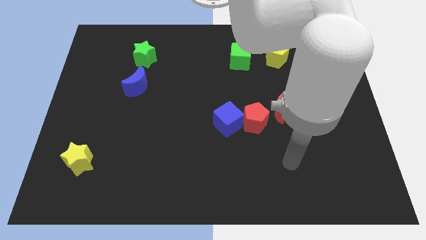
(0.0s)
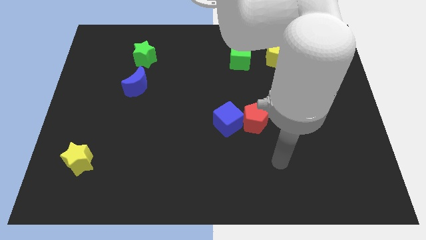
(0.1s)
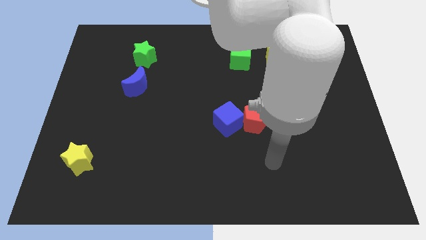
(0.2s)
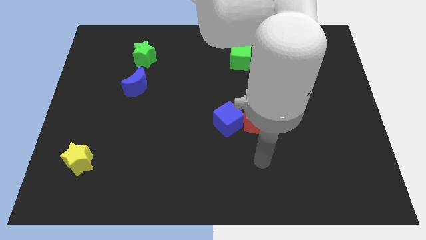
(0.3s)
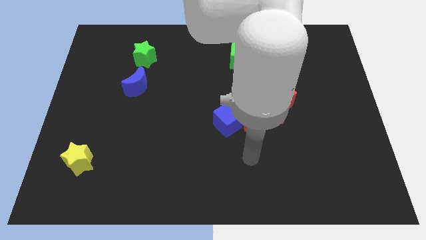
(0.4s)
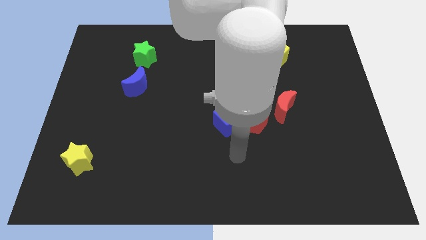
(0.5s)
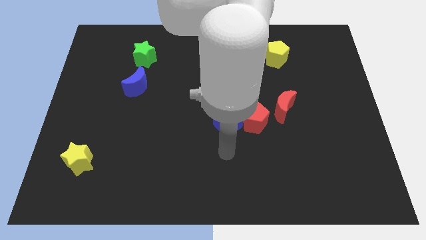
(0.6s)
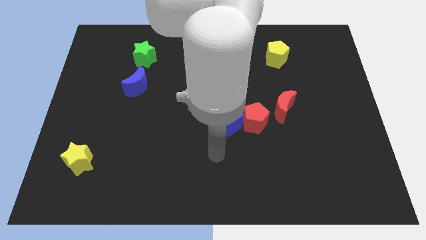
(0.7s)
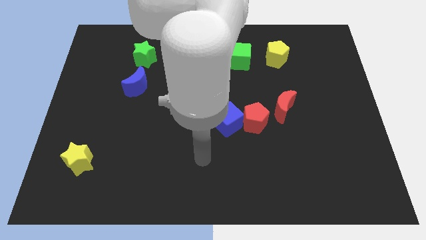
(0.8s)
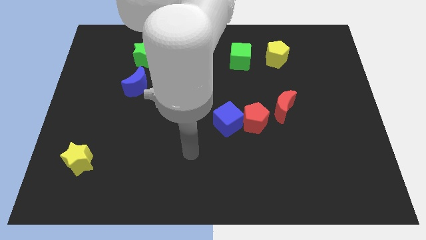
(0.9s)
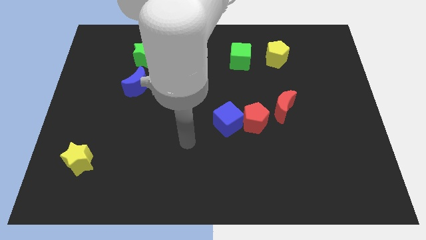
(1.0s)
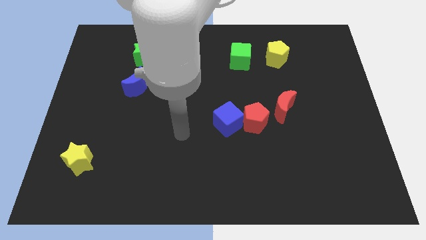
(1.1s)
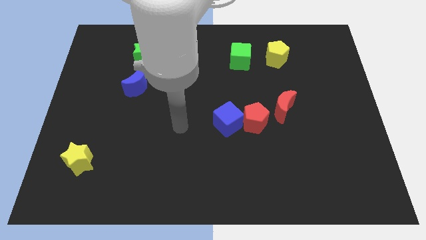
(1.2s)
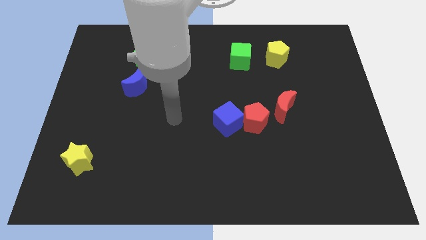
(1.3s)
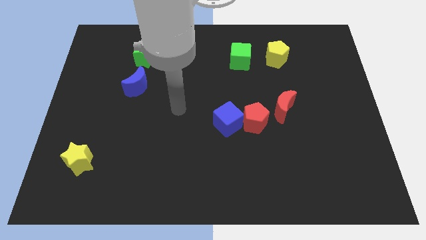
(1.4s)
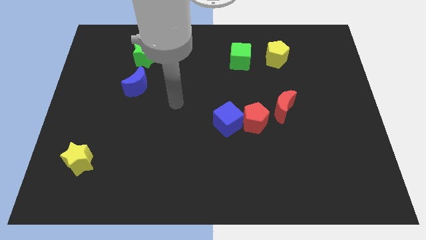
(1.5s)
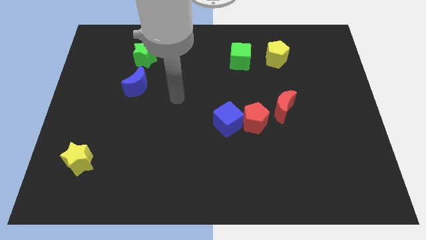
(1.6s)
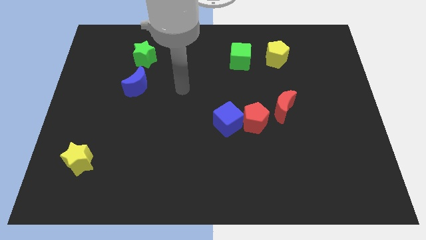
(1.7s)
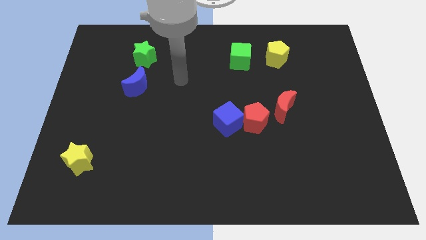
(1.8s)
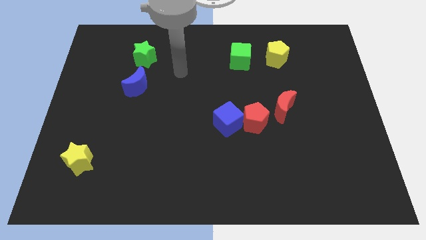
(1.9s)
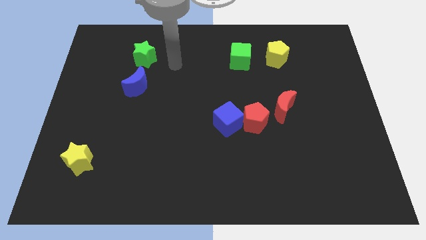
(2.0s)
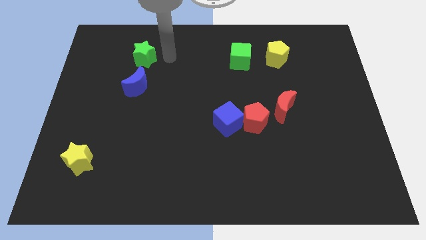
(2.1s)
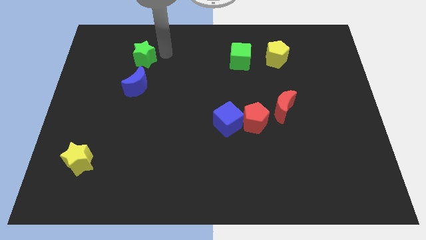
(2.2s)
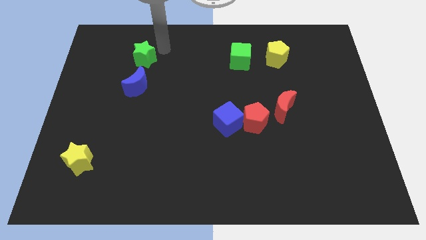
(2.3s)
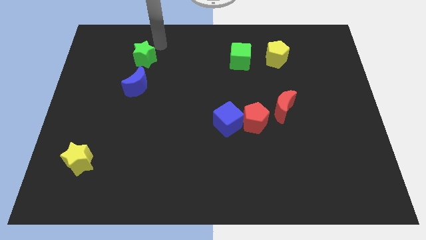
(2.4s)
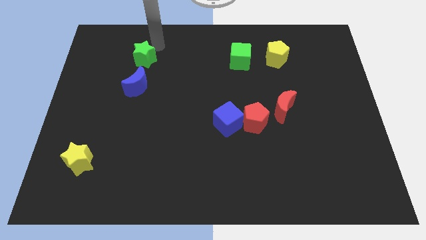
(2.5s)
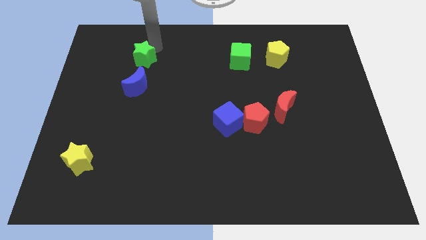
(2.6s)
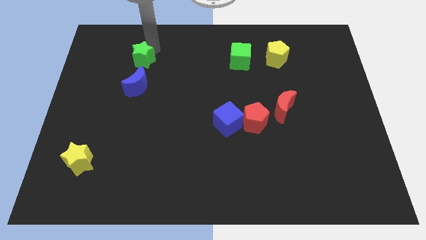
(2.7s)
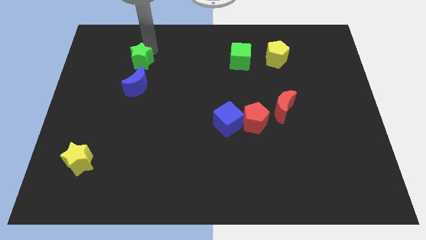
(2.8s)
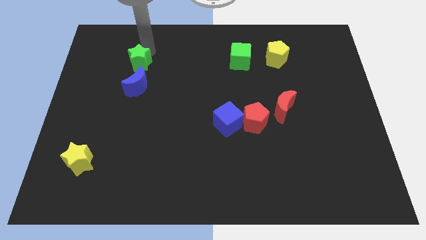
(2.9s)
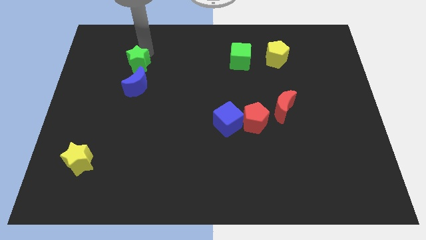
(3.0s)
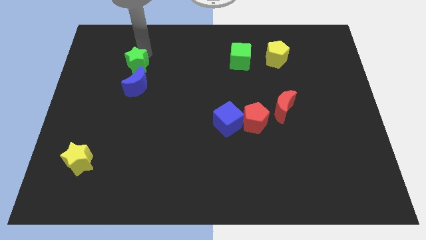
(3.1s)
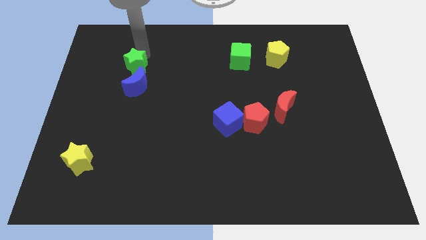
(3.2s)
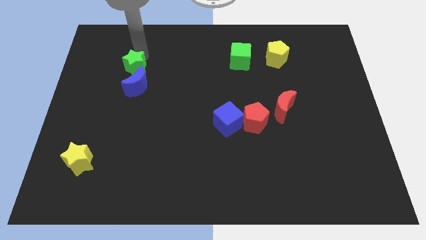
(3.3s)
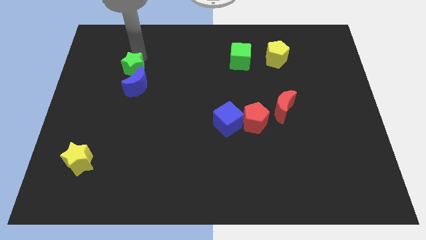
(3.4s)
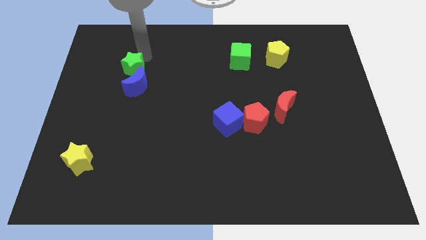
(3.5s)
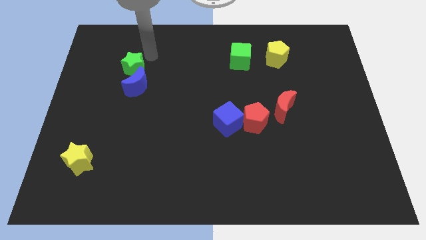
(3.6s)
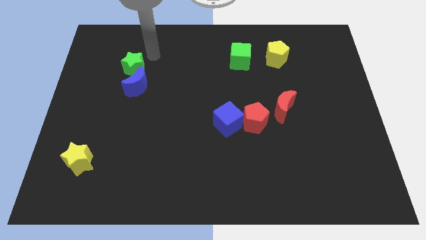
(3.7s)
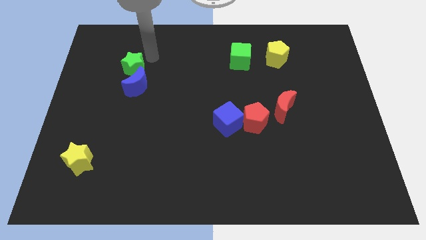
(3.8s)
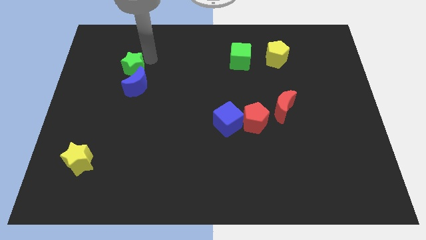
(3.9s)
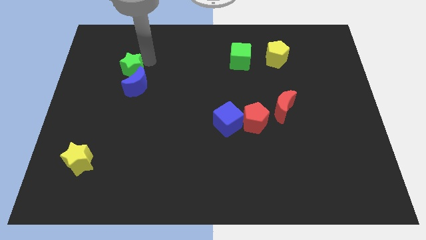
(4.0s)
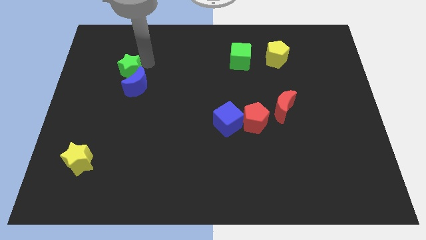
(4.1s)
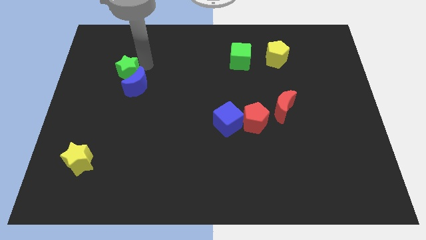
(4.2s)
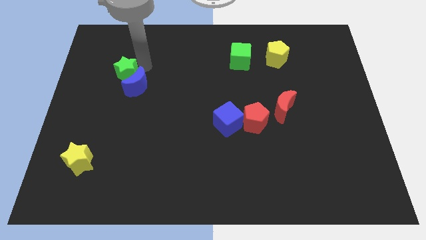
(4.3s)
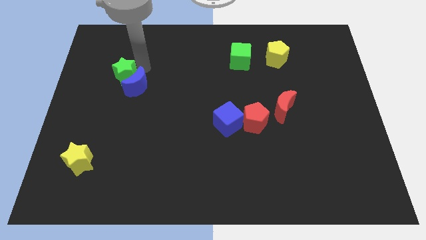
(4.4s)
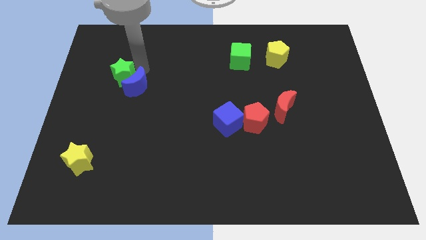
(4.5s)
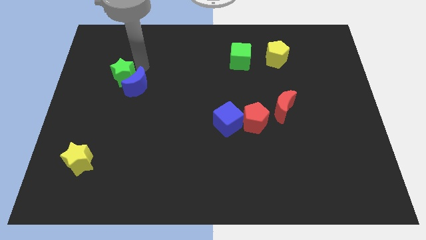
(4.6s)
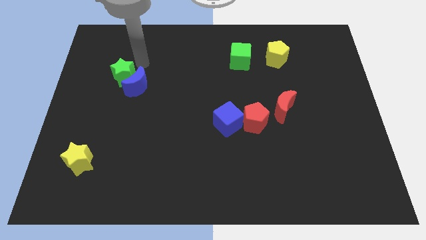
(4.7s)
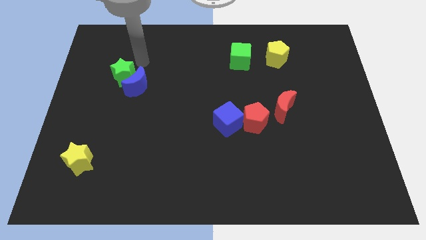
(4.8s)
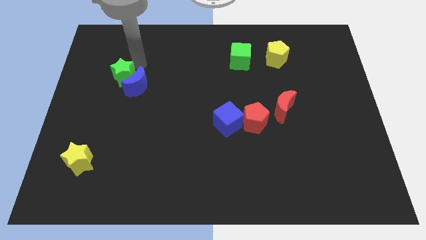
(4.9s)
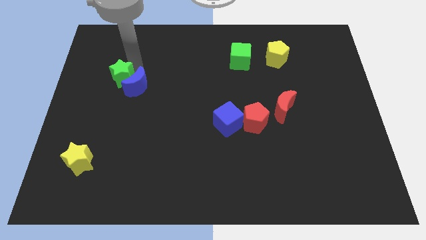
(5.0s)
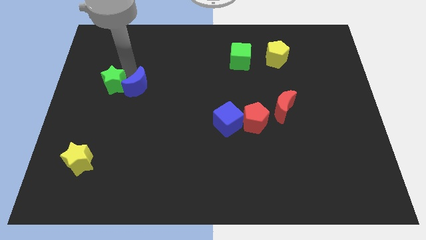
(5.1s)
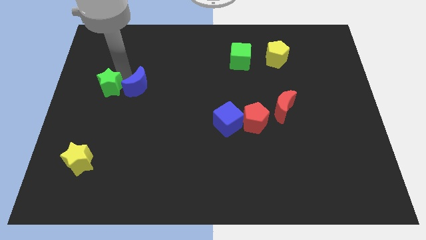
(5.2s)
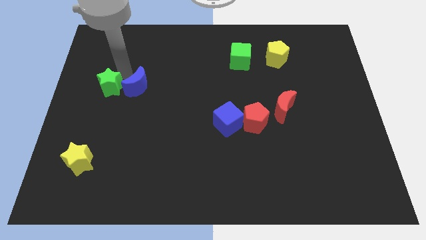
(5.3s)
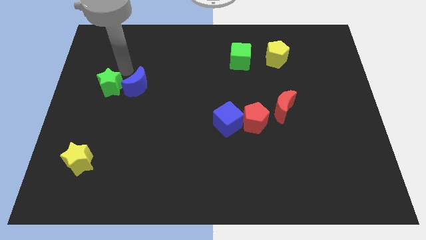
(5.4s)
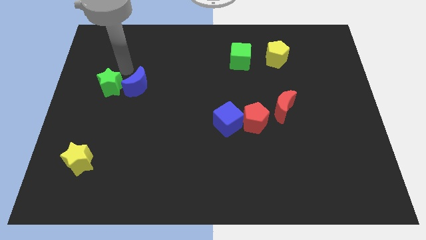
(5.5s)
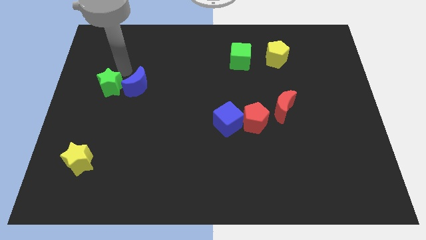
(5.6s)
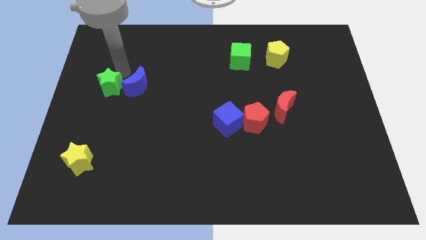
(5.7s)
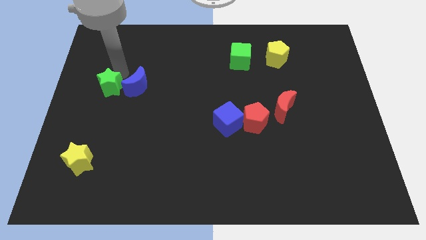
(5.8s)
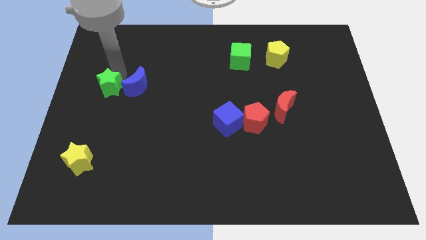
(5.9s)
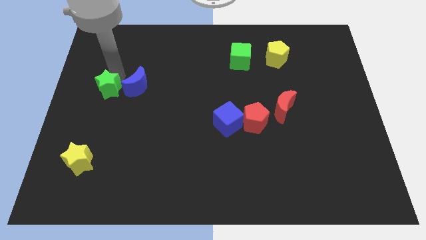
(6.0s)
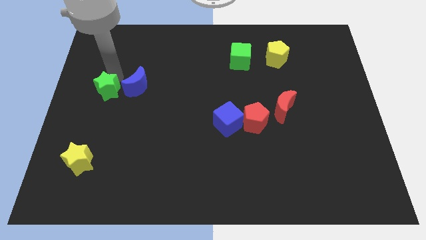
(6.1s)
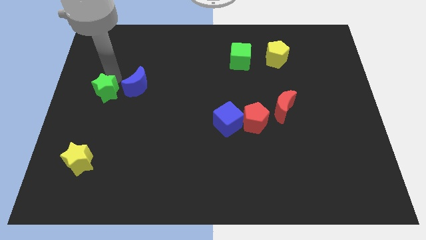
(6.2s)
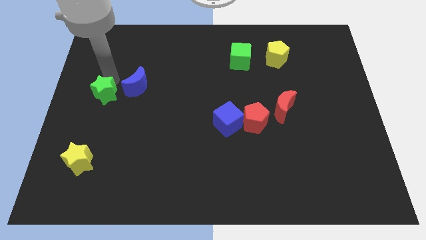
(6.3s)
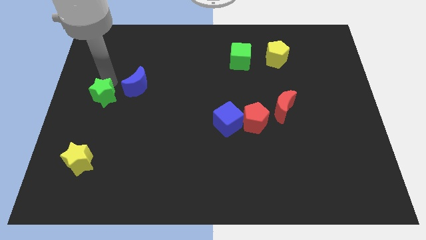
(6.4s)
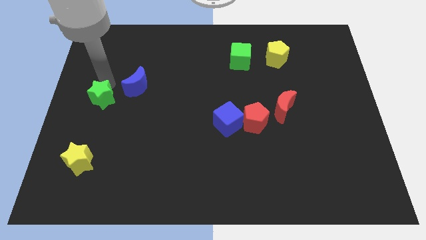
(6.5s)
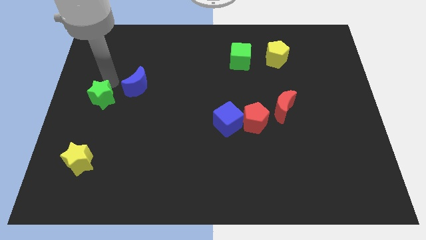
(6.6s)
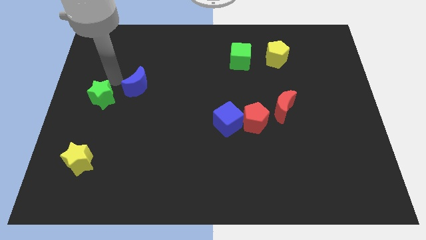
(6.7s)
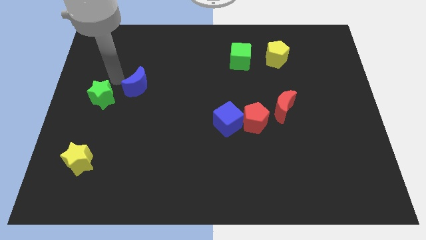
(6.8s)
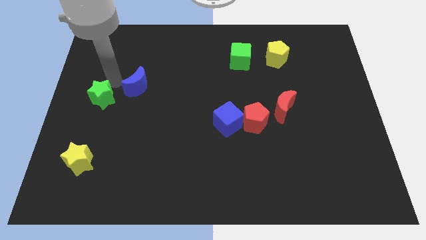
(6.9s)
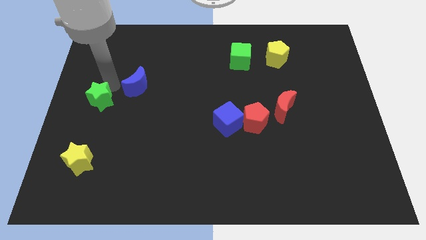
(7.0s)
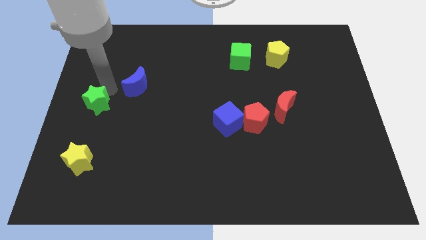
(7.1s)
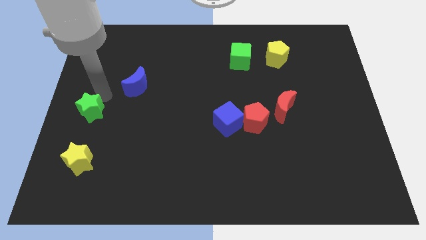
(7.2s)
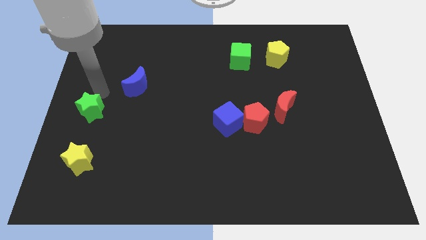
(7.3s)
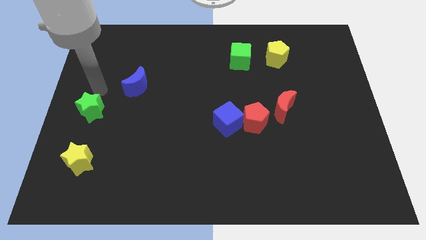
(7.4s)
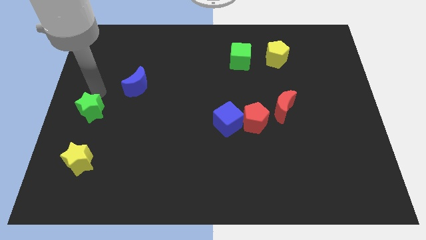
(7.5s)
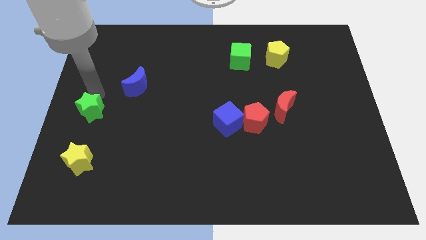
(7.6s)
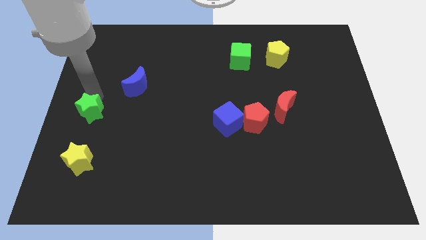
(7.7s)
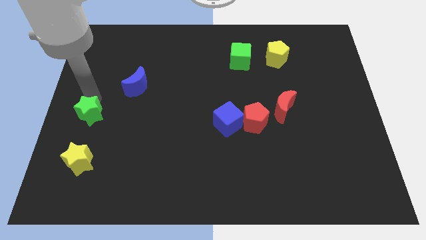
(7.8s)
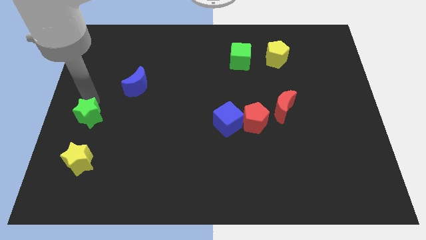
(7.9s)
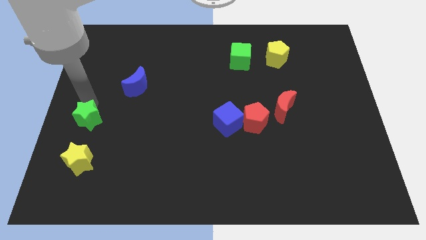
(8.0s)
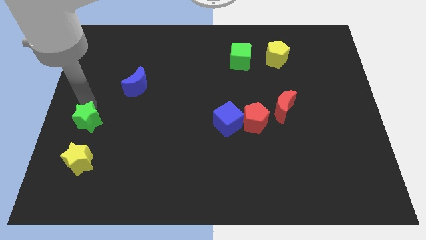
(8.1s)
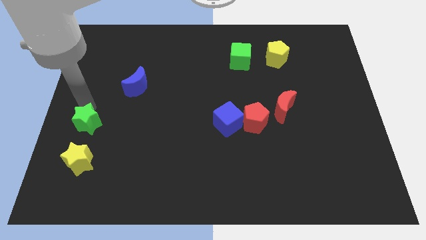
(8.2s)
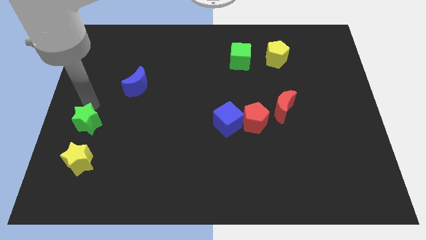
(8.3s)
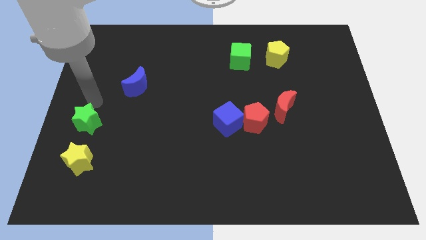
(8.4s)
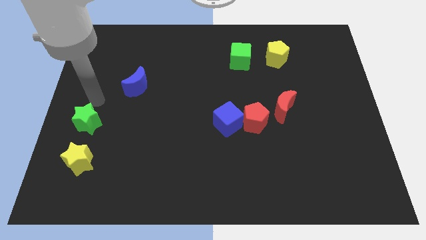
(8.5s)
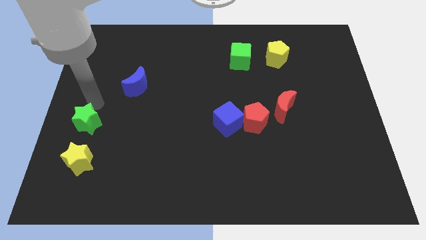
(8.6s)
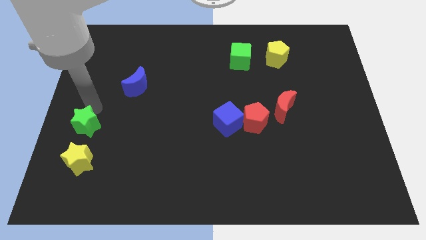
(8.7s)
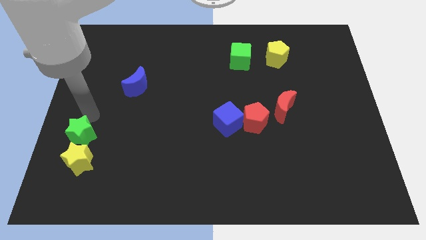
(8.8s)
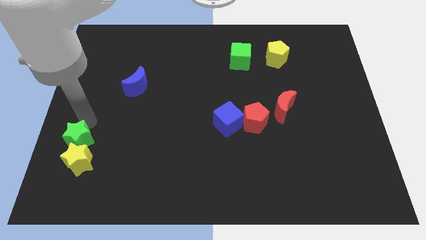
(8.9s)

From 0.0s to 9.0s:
slide the green star close to the yellow star
